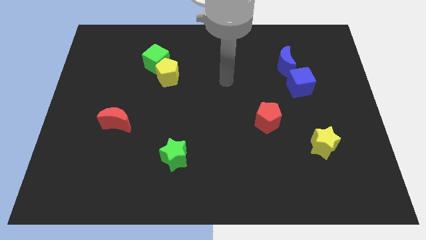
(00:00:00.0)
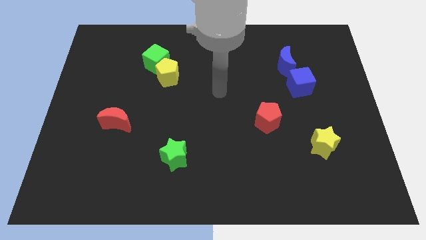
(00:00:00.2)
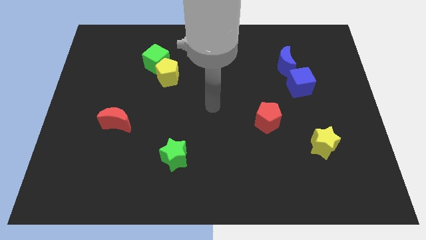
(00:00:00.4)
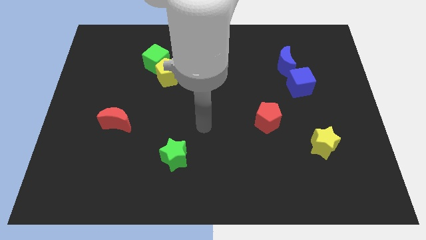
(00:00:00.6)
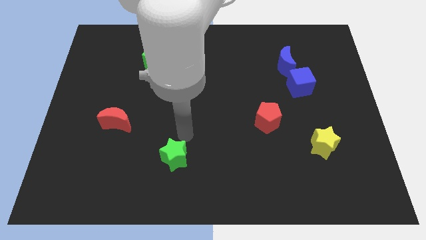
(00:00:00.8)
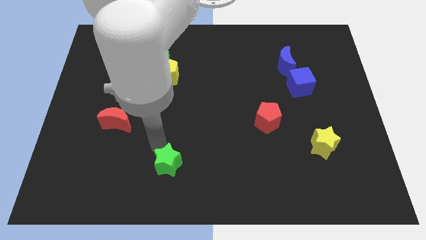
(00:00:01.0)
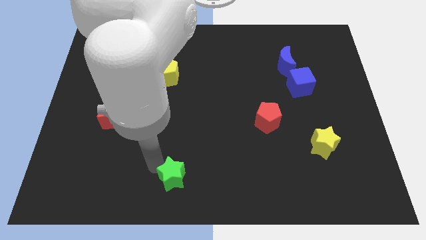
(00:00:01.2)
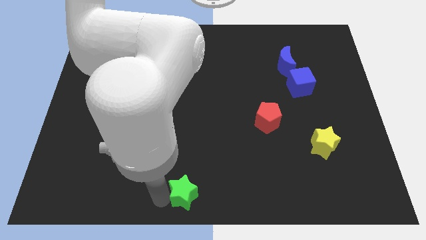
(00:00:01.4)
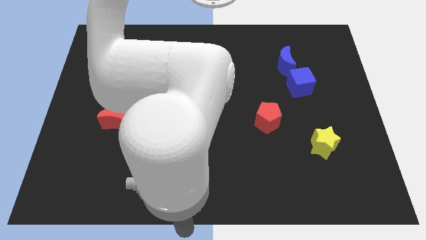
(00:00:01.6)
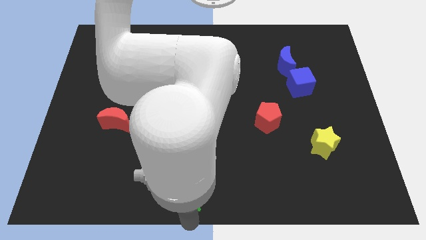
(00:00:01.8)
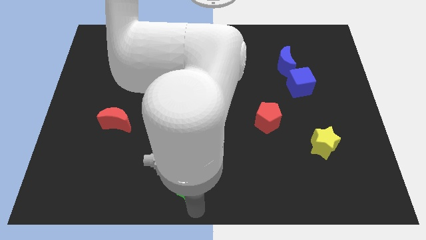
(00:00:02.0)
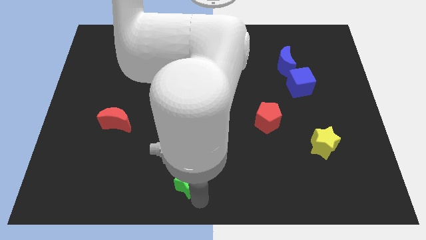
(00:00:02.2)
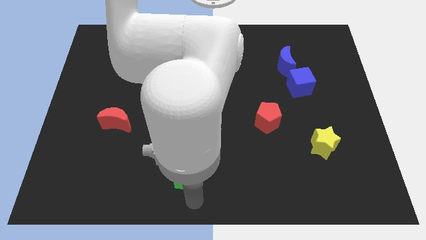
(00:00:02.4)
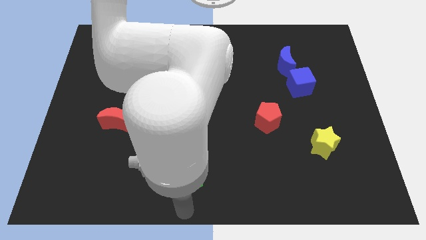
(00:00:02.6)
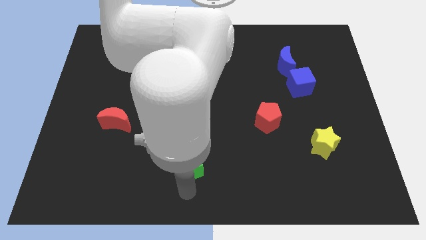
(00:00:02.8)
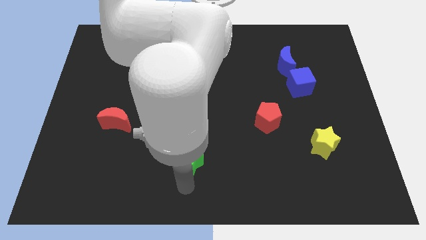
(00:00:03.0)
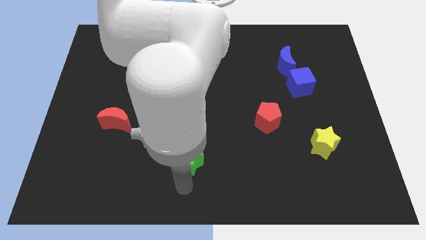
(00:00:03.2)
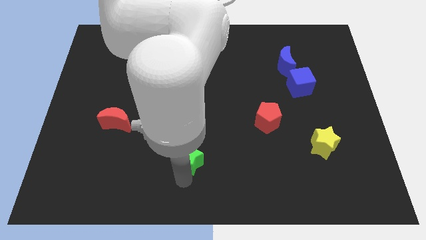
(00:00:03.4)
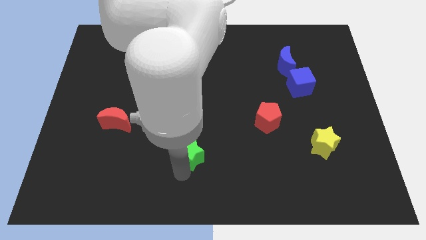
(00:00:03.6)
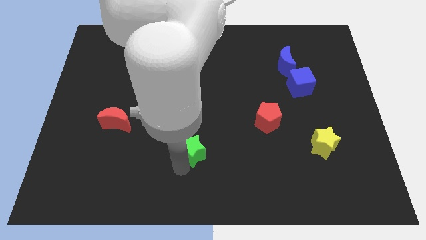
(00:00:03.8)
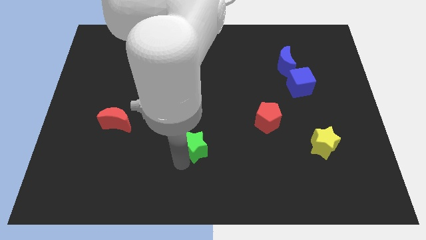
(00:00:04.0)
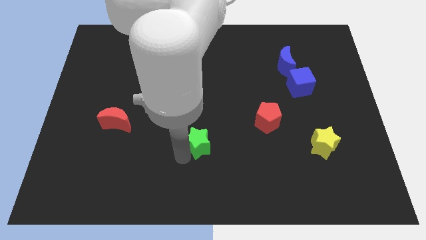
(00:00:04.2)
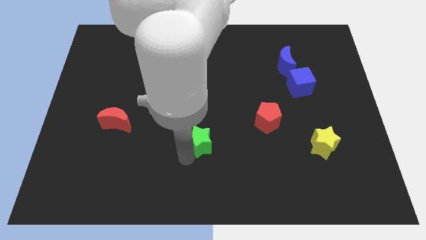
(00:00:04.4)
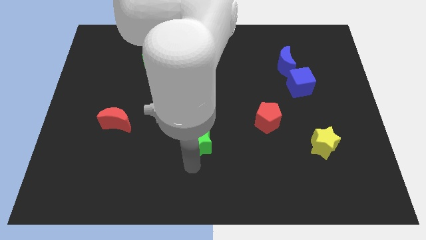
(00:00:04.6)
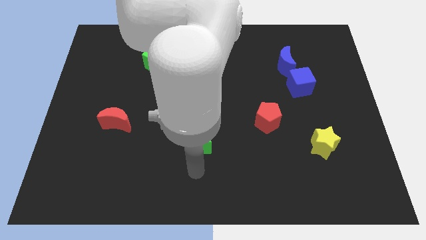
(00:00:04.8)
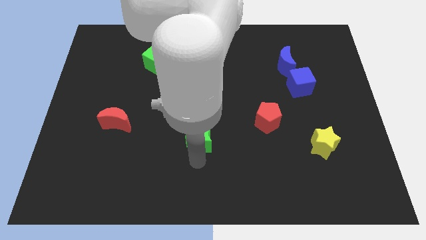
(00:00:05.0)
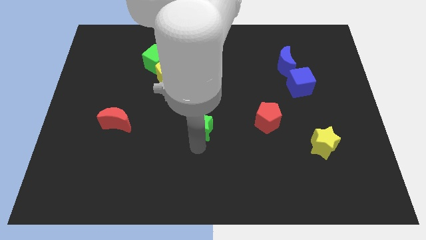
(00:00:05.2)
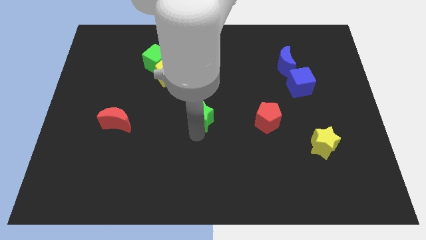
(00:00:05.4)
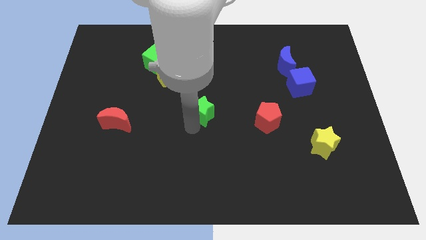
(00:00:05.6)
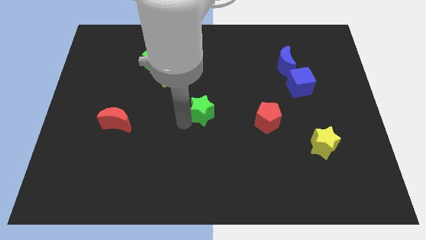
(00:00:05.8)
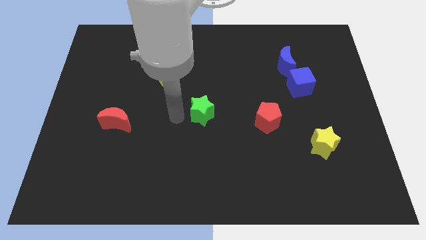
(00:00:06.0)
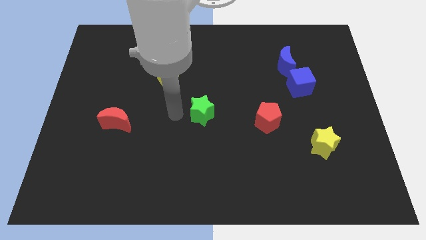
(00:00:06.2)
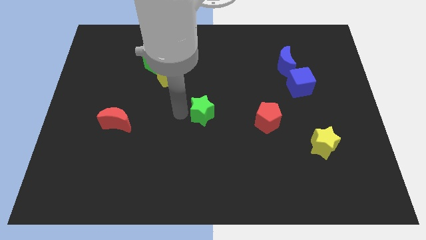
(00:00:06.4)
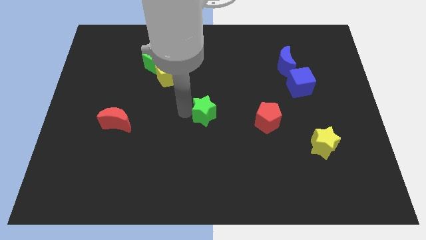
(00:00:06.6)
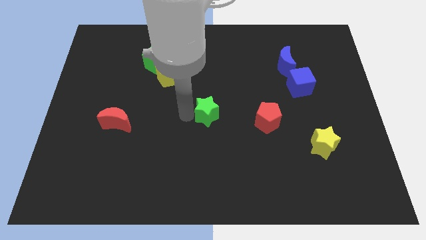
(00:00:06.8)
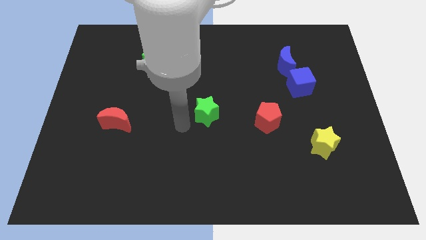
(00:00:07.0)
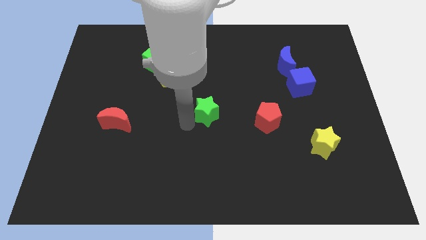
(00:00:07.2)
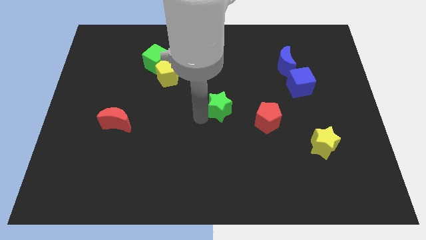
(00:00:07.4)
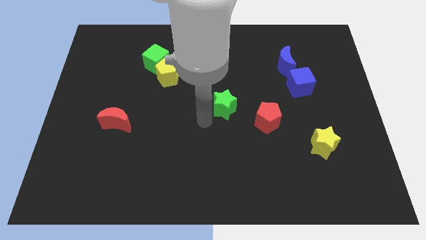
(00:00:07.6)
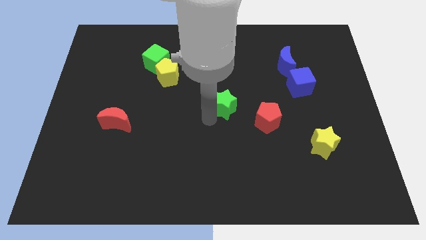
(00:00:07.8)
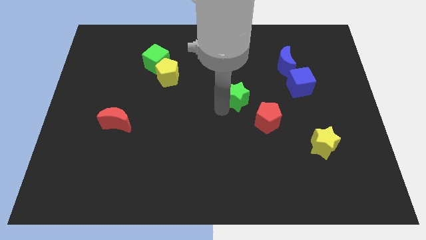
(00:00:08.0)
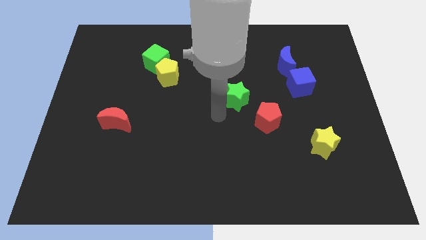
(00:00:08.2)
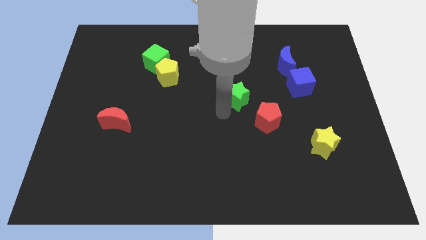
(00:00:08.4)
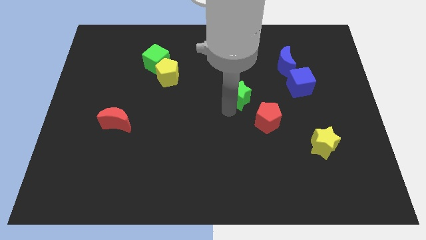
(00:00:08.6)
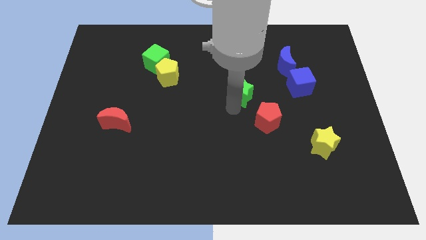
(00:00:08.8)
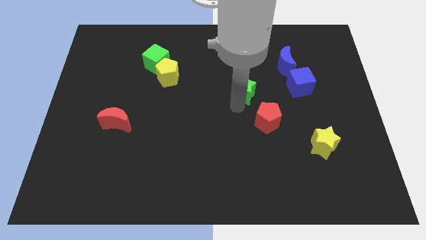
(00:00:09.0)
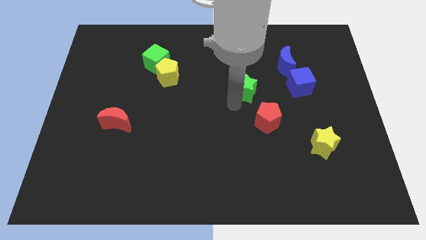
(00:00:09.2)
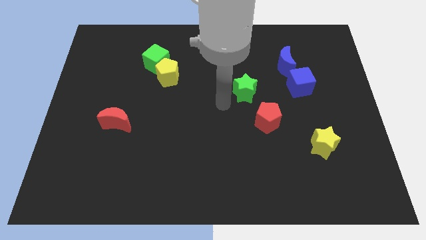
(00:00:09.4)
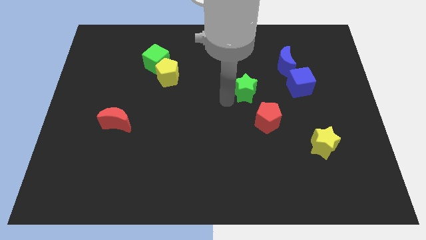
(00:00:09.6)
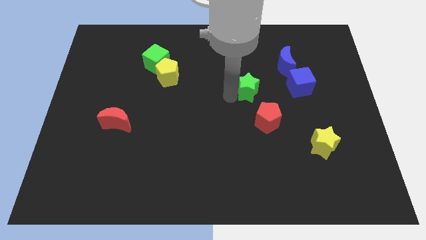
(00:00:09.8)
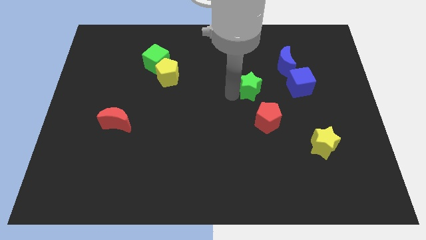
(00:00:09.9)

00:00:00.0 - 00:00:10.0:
put the green star diagonally down and to the left of the blue moon

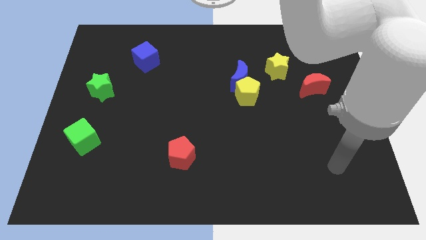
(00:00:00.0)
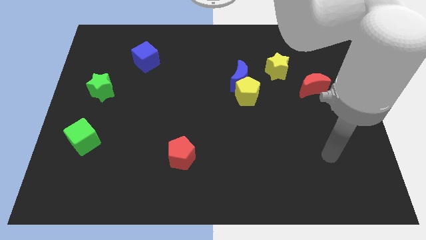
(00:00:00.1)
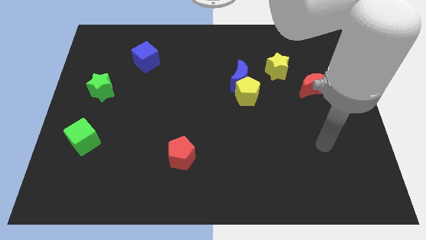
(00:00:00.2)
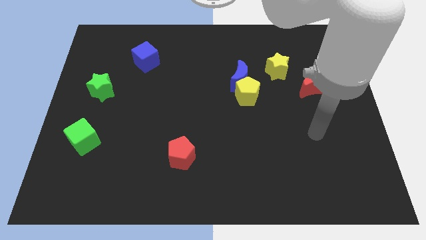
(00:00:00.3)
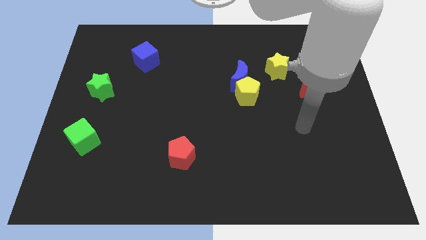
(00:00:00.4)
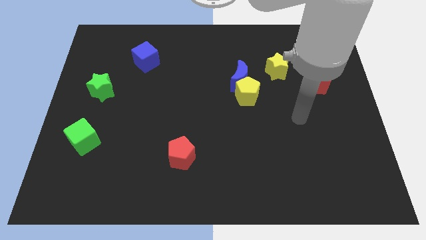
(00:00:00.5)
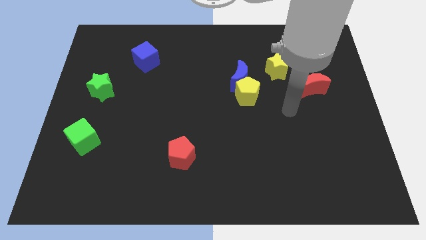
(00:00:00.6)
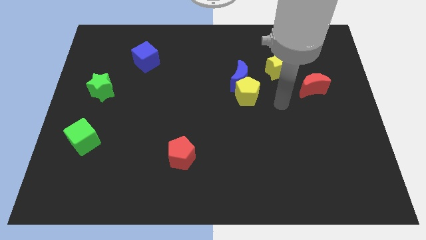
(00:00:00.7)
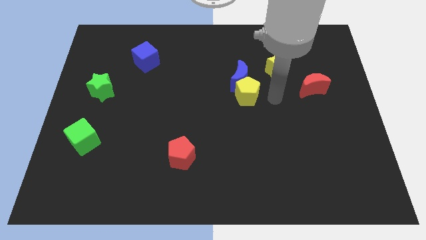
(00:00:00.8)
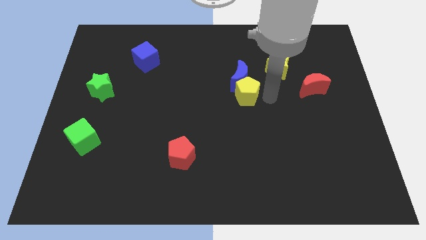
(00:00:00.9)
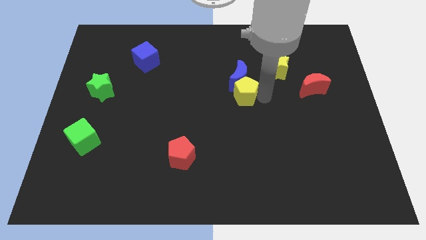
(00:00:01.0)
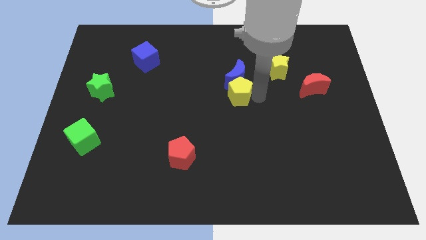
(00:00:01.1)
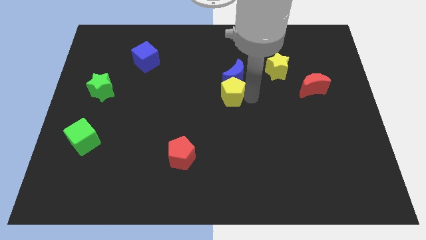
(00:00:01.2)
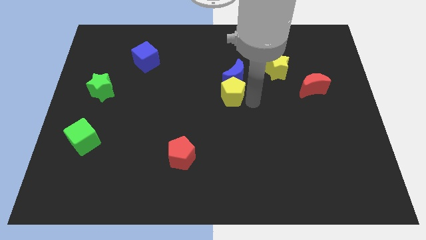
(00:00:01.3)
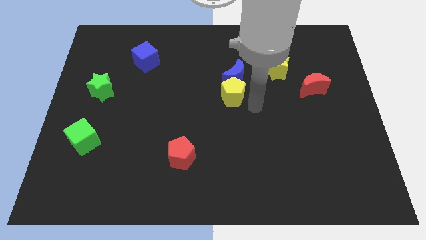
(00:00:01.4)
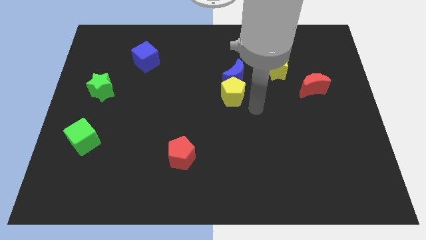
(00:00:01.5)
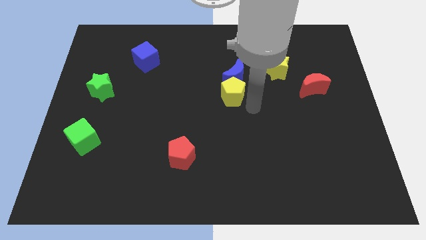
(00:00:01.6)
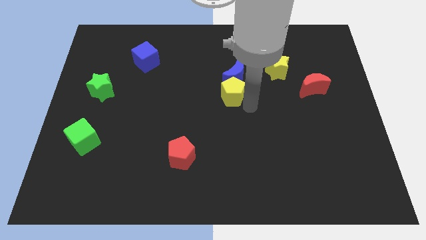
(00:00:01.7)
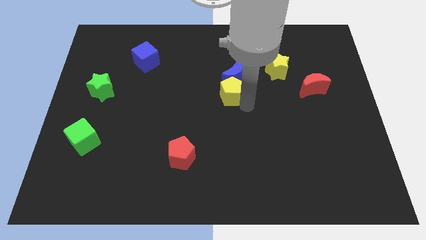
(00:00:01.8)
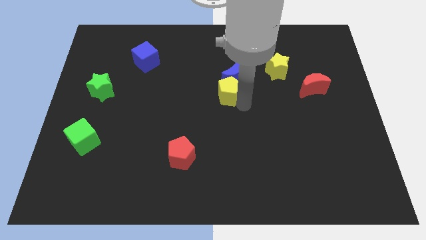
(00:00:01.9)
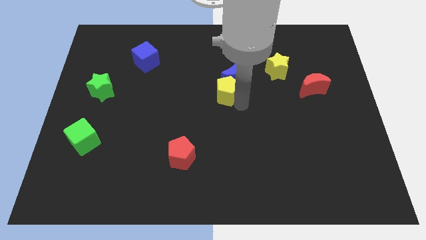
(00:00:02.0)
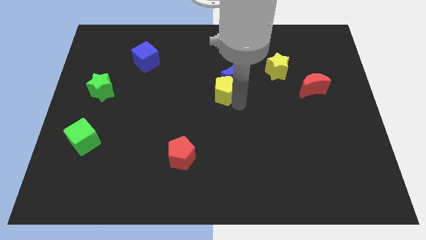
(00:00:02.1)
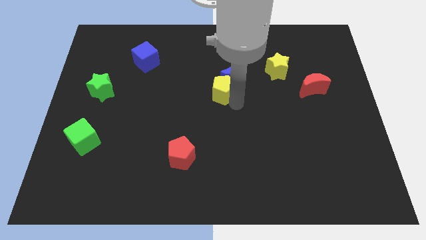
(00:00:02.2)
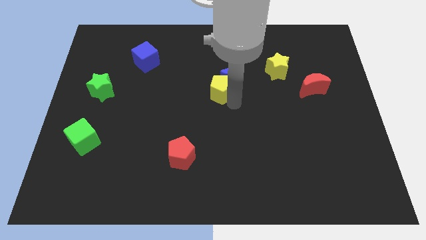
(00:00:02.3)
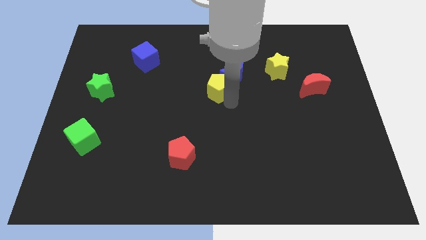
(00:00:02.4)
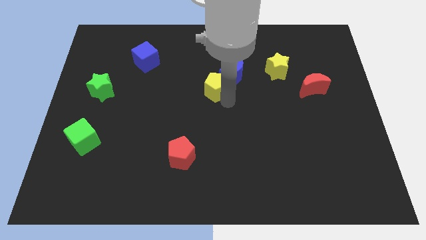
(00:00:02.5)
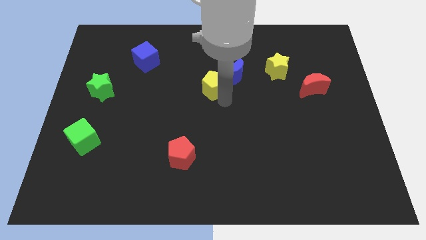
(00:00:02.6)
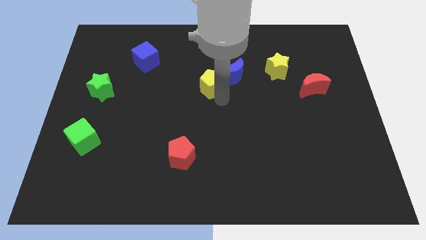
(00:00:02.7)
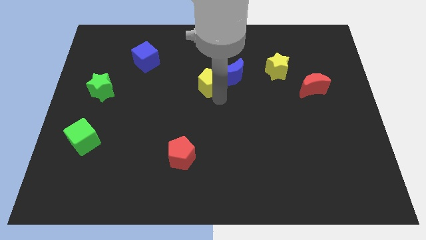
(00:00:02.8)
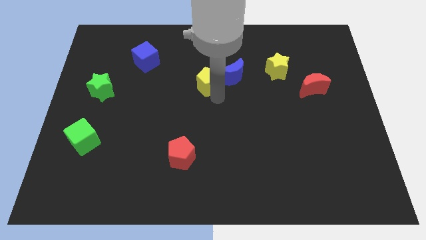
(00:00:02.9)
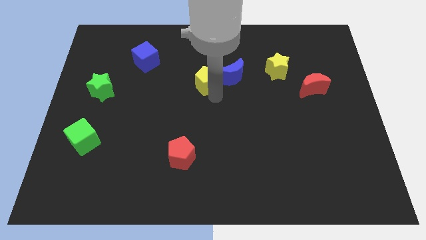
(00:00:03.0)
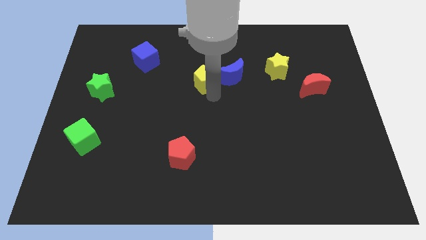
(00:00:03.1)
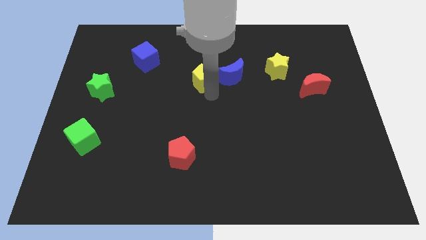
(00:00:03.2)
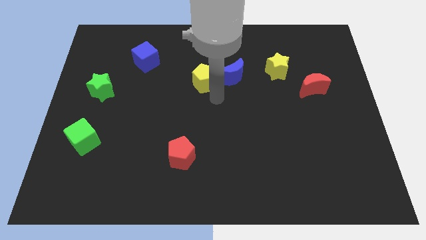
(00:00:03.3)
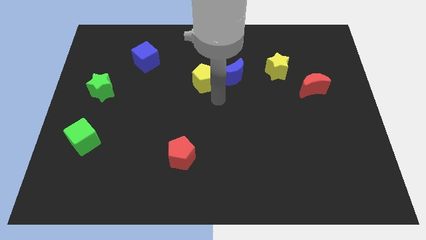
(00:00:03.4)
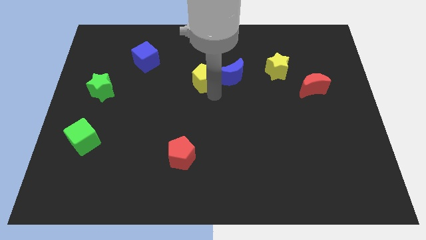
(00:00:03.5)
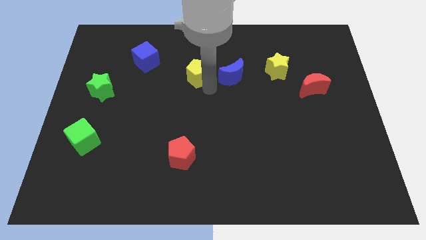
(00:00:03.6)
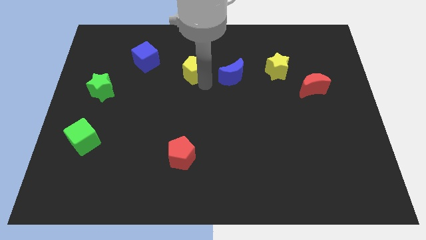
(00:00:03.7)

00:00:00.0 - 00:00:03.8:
put the yellow pentagon to the right side of the blue cube
